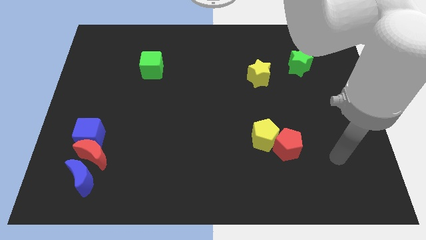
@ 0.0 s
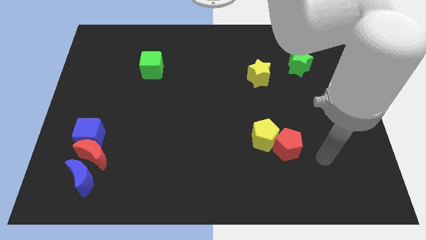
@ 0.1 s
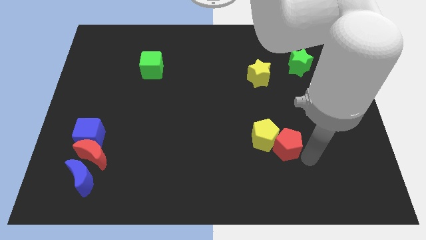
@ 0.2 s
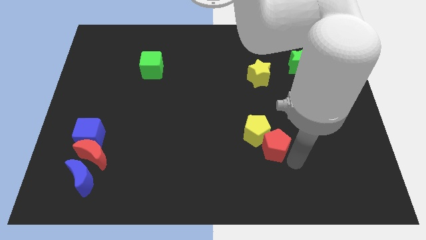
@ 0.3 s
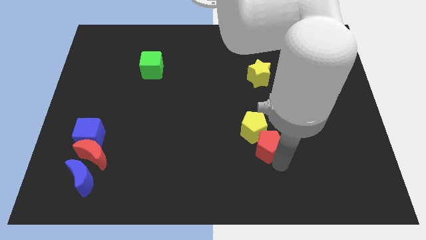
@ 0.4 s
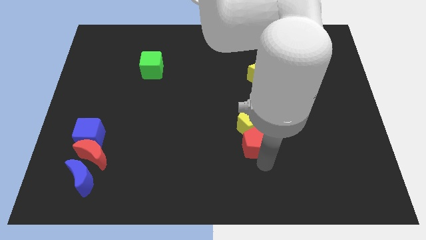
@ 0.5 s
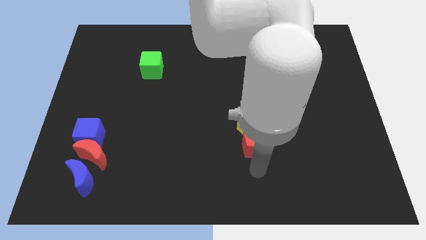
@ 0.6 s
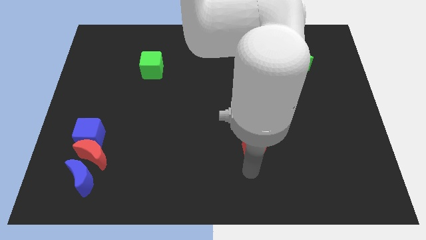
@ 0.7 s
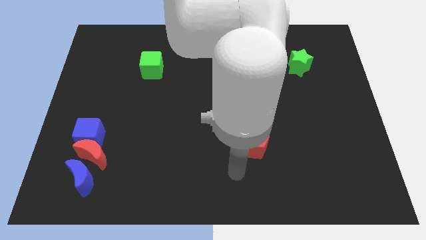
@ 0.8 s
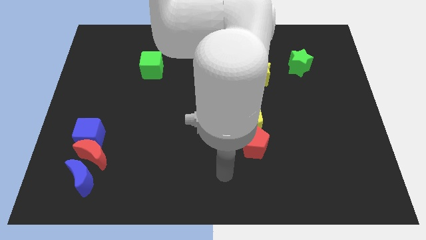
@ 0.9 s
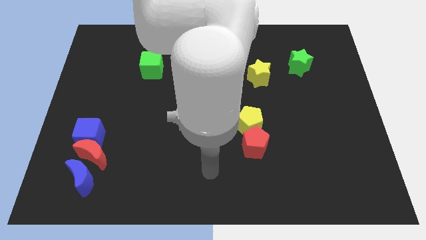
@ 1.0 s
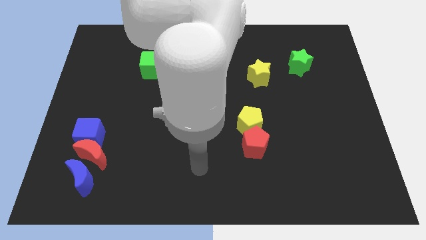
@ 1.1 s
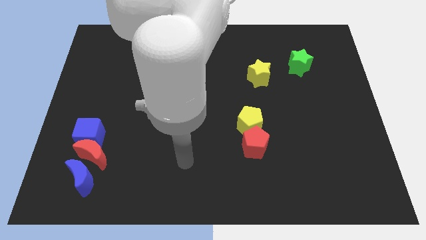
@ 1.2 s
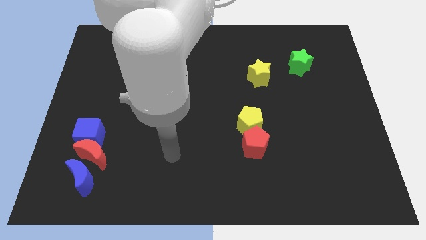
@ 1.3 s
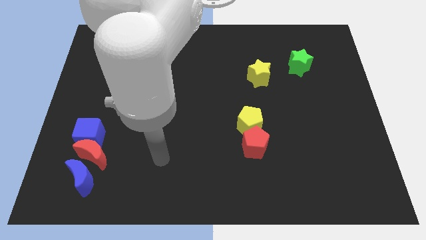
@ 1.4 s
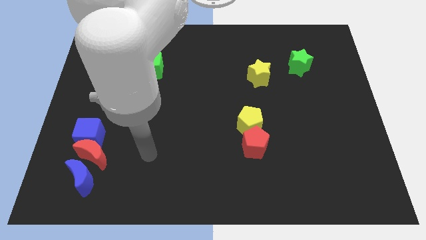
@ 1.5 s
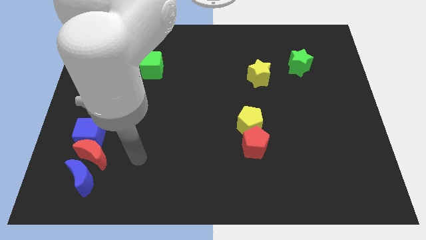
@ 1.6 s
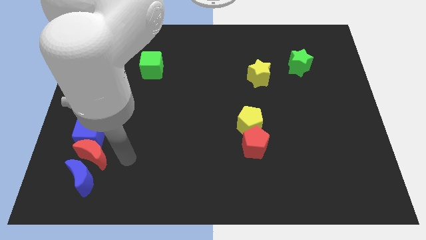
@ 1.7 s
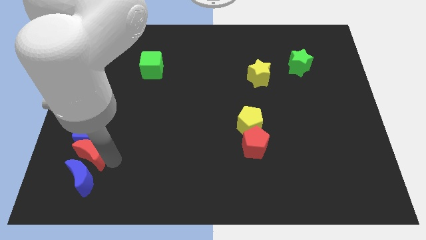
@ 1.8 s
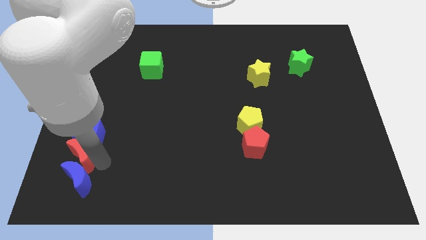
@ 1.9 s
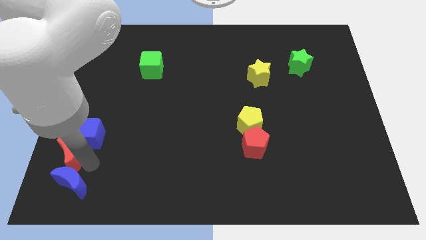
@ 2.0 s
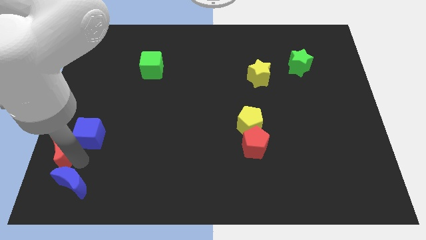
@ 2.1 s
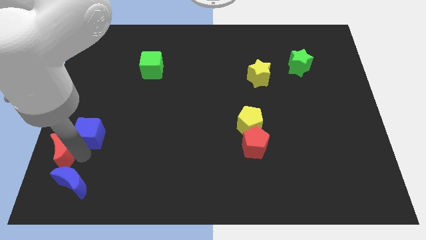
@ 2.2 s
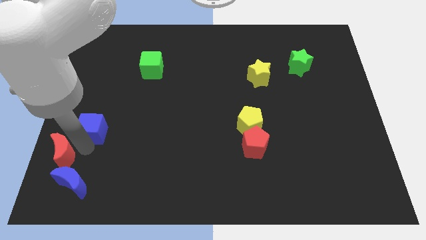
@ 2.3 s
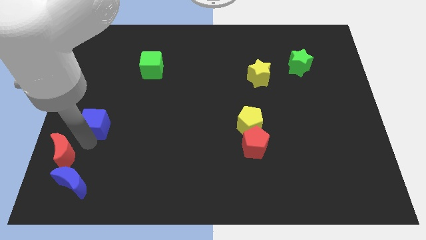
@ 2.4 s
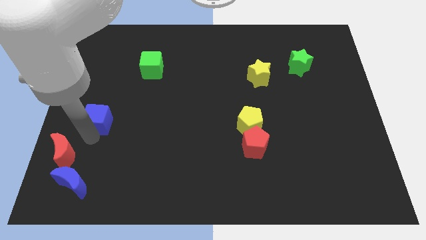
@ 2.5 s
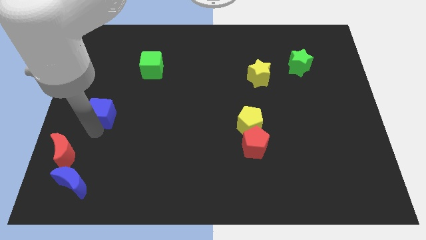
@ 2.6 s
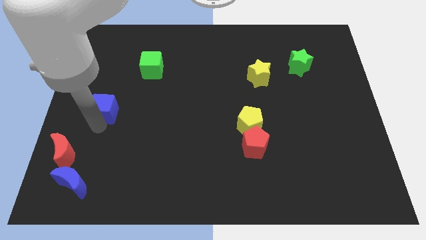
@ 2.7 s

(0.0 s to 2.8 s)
move the blue cube a little bit upwards

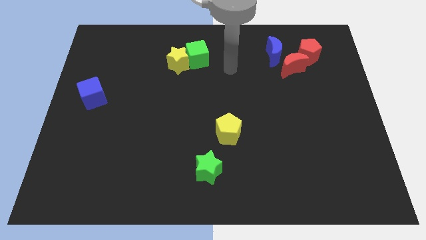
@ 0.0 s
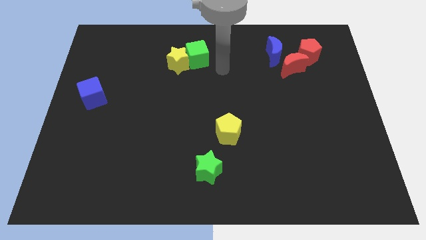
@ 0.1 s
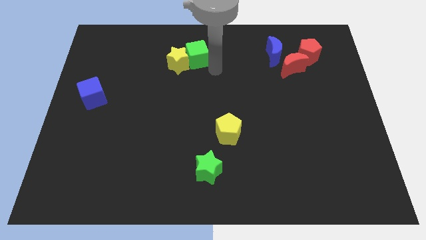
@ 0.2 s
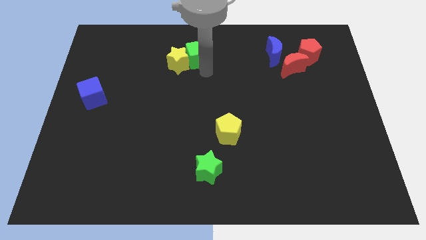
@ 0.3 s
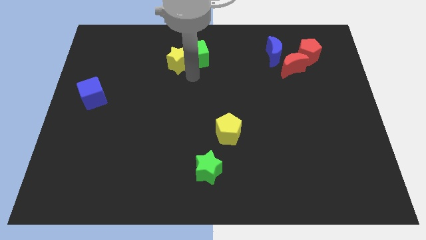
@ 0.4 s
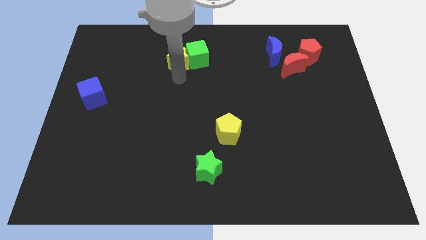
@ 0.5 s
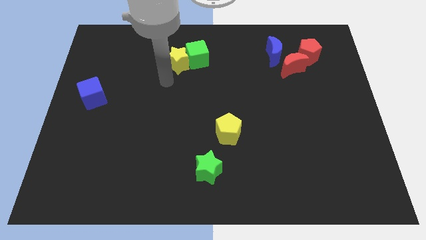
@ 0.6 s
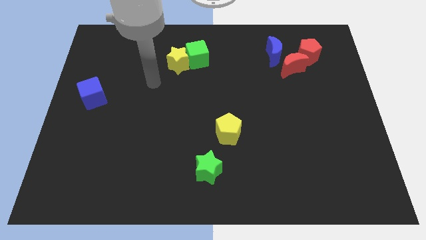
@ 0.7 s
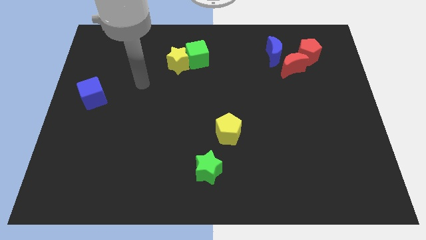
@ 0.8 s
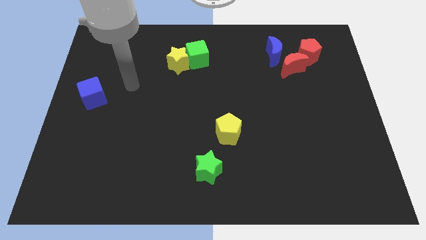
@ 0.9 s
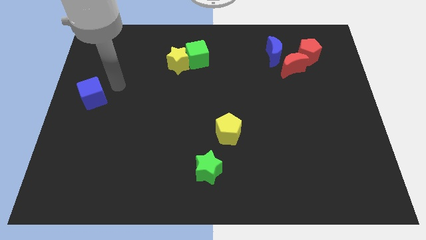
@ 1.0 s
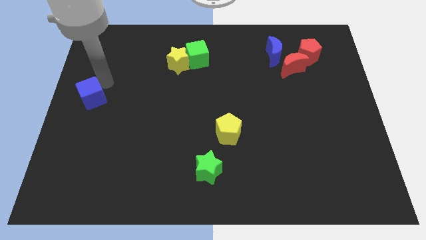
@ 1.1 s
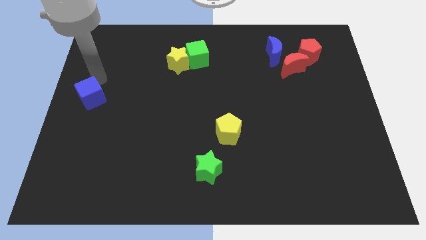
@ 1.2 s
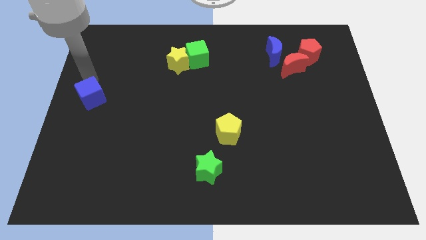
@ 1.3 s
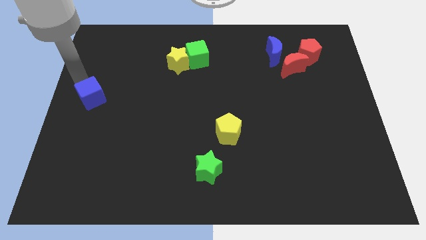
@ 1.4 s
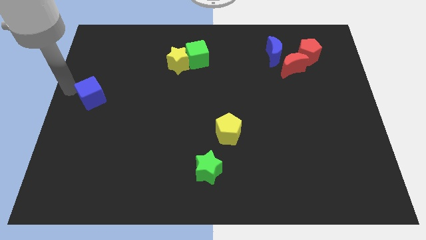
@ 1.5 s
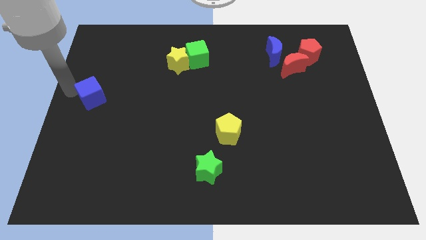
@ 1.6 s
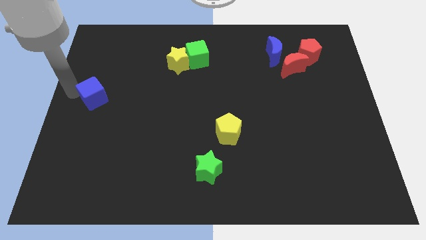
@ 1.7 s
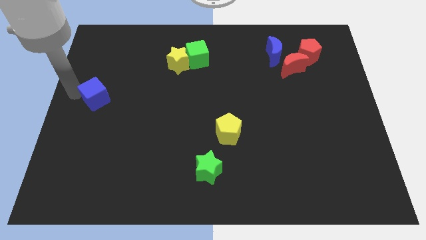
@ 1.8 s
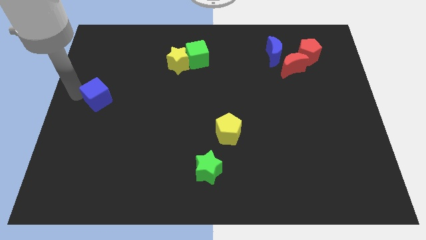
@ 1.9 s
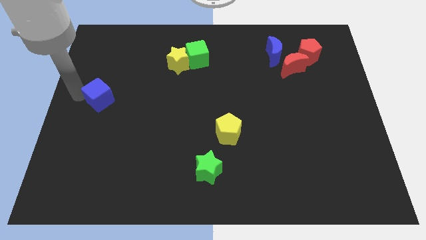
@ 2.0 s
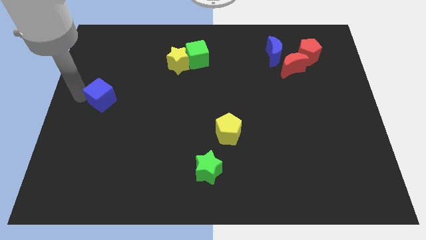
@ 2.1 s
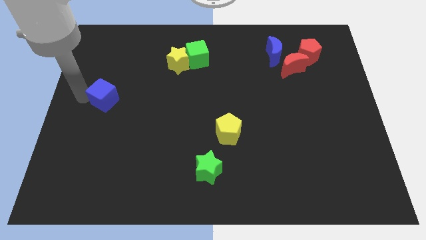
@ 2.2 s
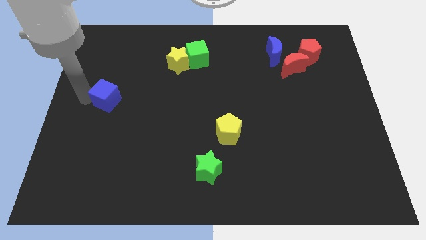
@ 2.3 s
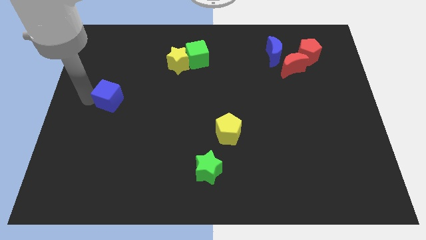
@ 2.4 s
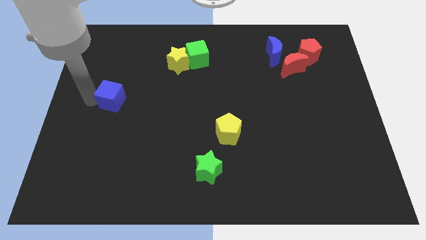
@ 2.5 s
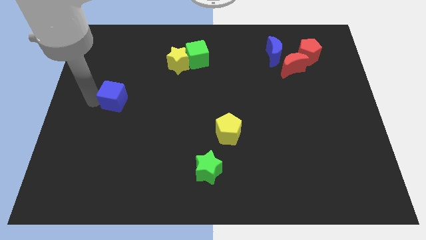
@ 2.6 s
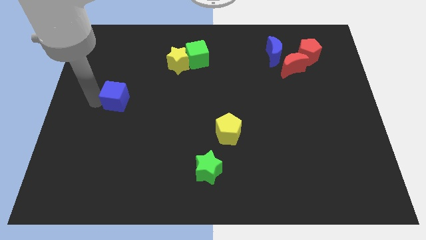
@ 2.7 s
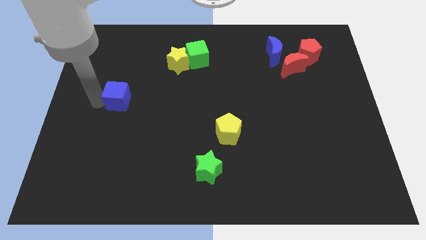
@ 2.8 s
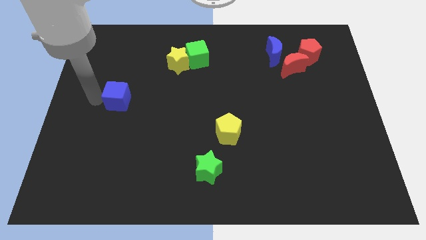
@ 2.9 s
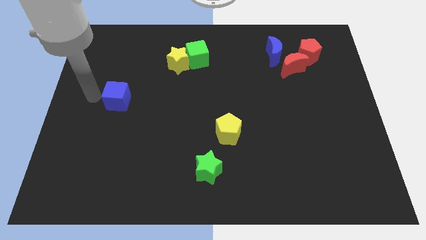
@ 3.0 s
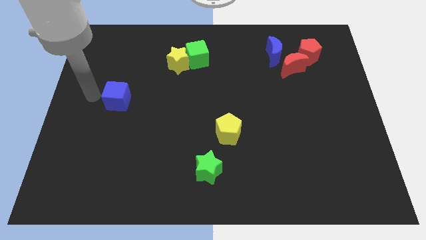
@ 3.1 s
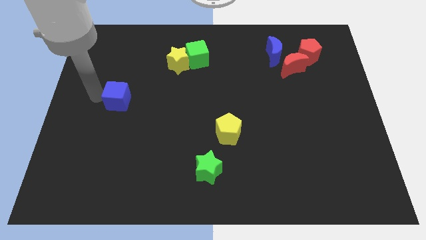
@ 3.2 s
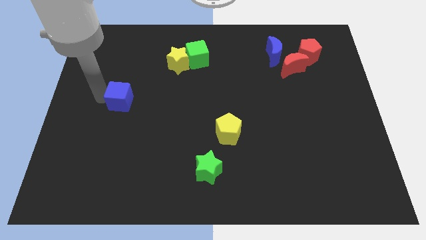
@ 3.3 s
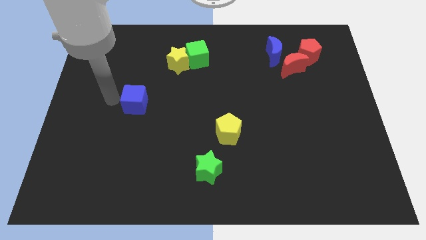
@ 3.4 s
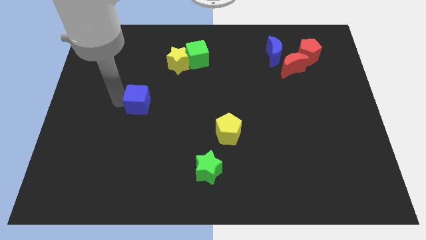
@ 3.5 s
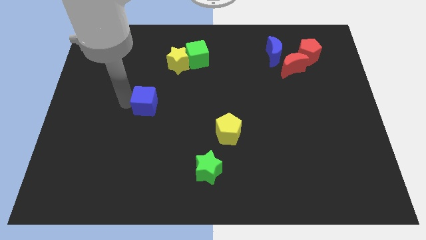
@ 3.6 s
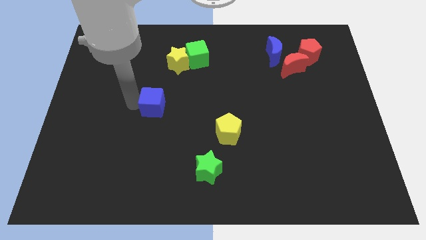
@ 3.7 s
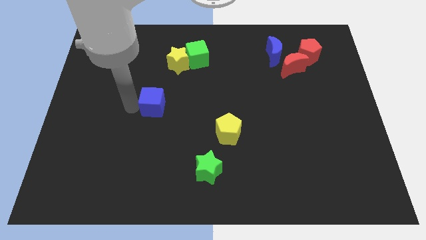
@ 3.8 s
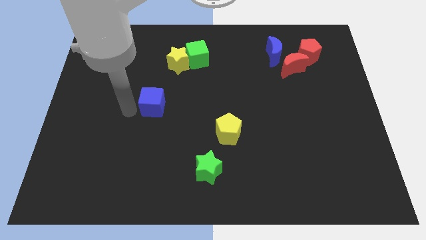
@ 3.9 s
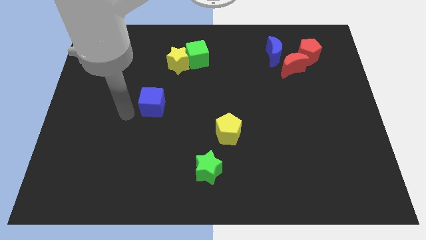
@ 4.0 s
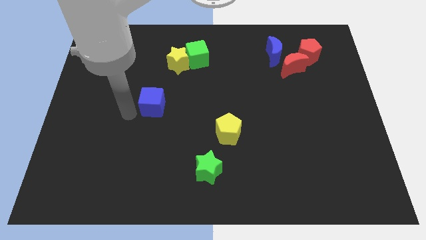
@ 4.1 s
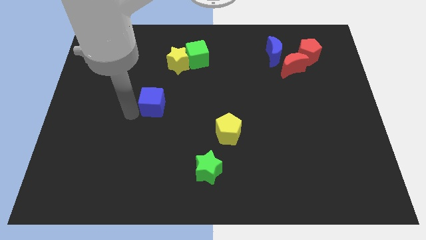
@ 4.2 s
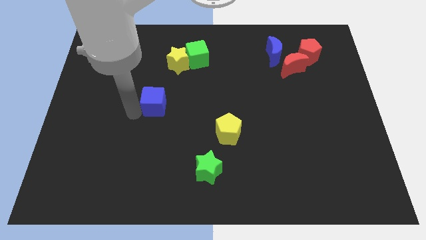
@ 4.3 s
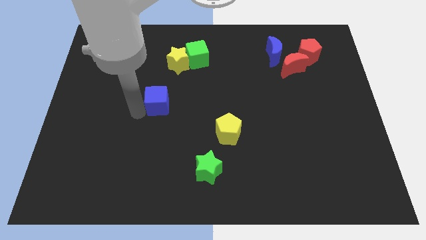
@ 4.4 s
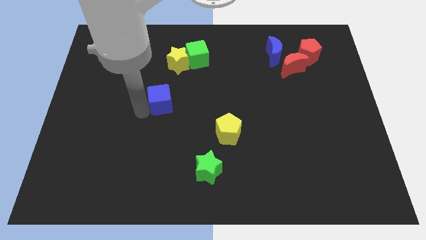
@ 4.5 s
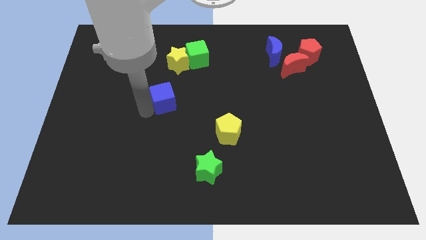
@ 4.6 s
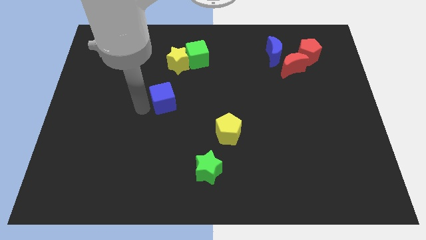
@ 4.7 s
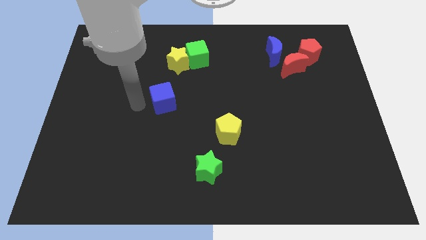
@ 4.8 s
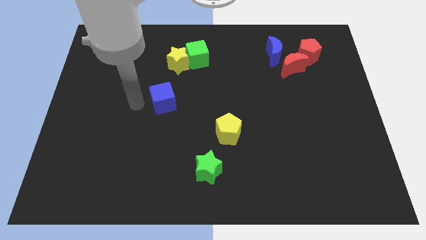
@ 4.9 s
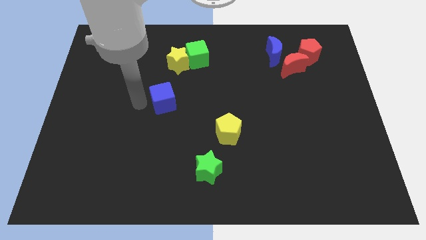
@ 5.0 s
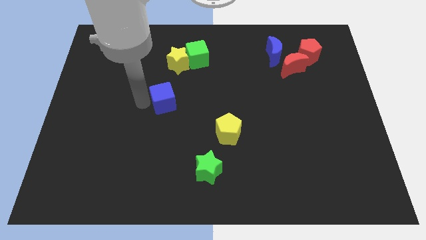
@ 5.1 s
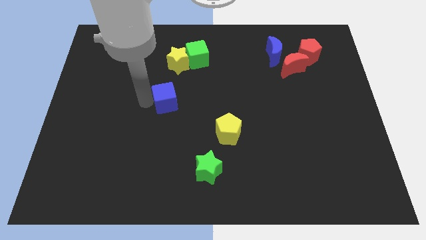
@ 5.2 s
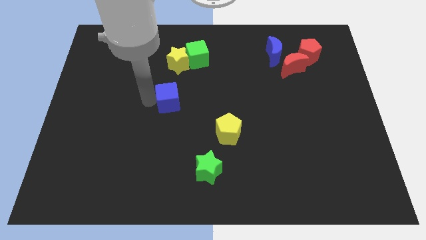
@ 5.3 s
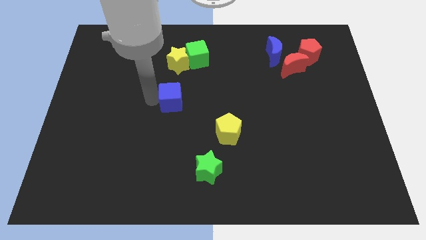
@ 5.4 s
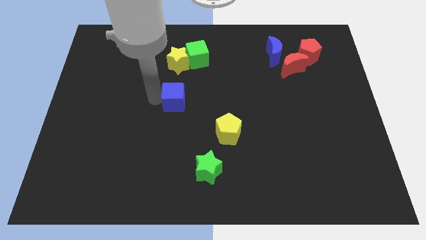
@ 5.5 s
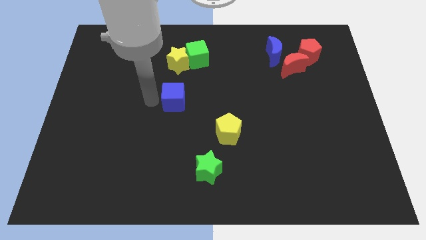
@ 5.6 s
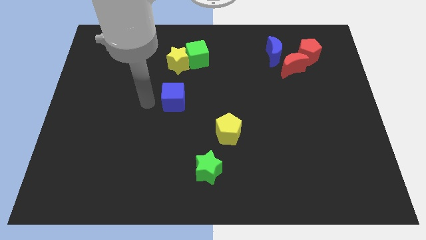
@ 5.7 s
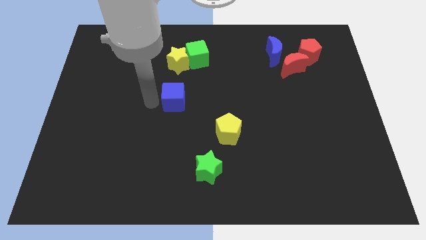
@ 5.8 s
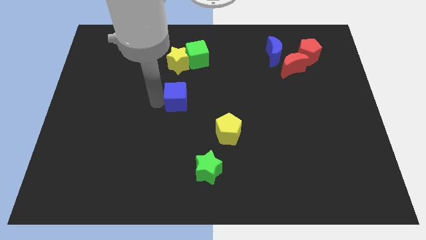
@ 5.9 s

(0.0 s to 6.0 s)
push the blue cube to the right
